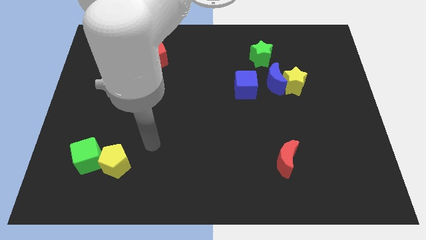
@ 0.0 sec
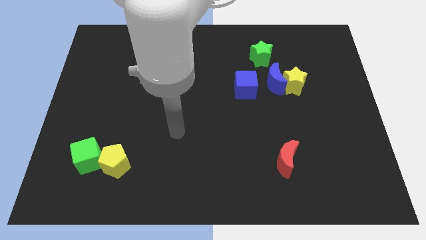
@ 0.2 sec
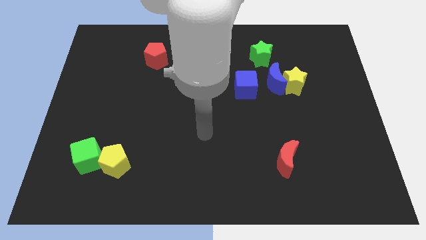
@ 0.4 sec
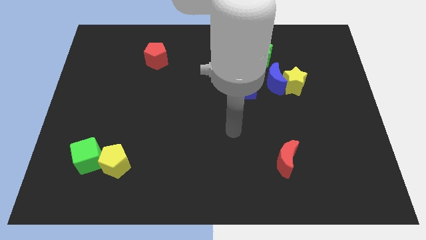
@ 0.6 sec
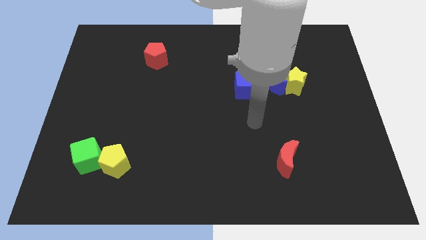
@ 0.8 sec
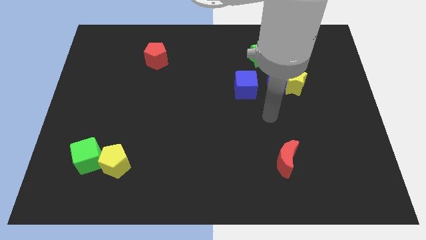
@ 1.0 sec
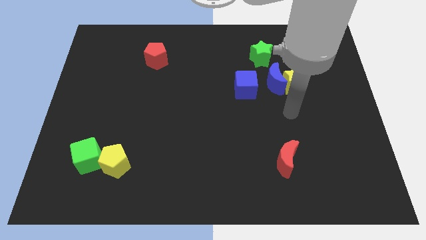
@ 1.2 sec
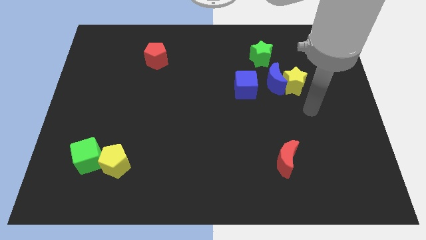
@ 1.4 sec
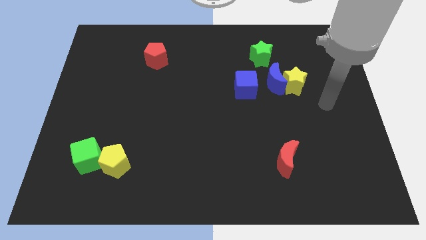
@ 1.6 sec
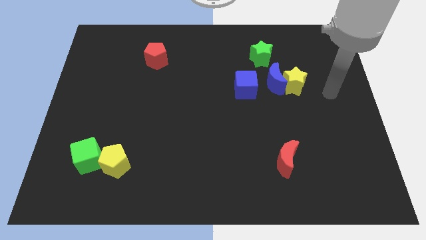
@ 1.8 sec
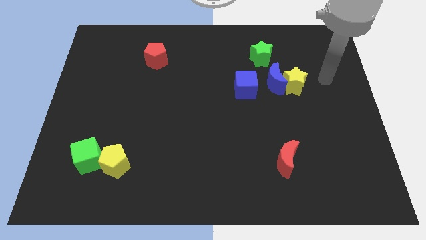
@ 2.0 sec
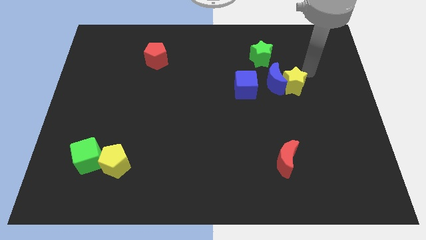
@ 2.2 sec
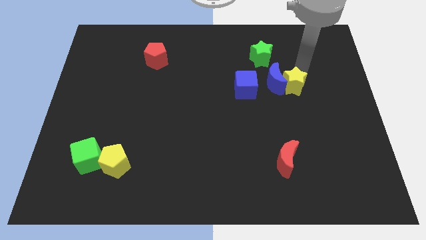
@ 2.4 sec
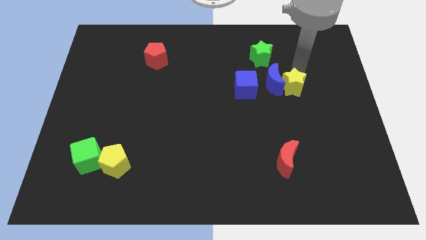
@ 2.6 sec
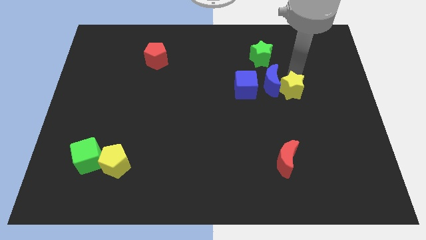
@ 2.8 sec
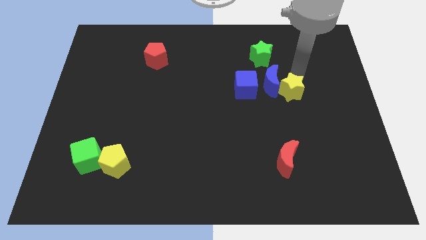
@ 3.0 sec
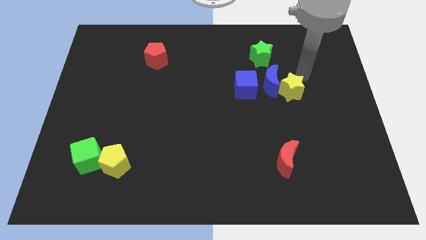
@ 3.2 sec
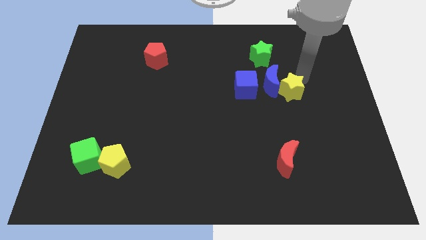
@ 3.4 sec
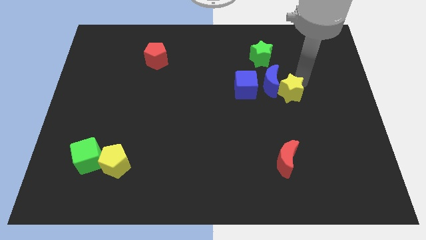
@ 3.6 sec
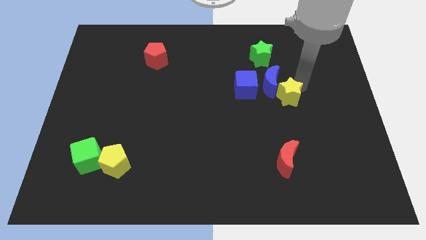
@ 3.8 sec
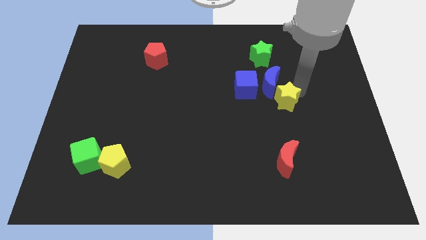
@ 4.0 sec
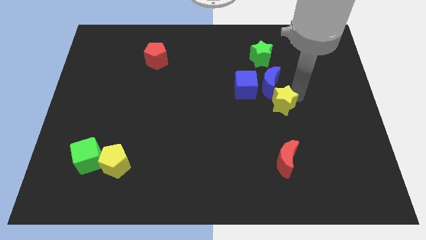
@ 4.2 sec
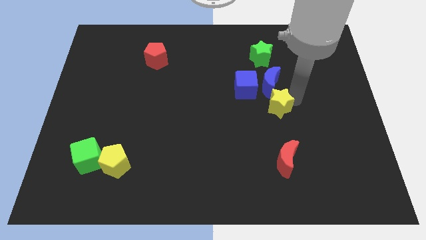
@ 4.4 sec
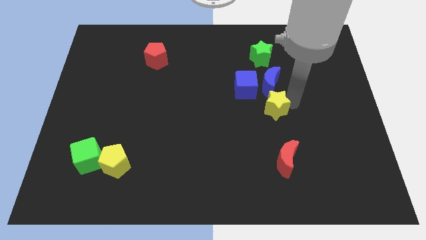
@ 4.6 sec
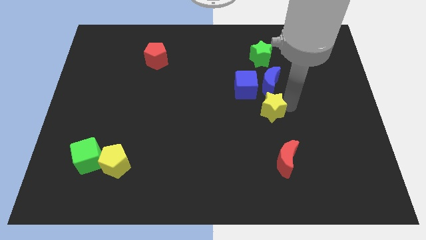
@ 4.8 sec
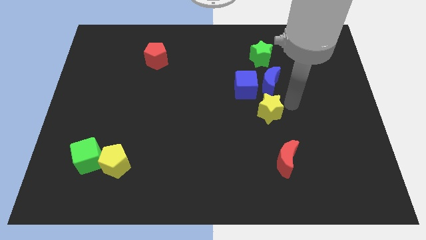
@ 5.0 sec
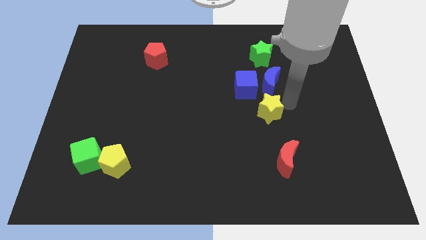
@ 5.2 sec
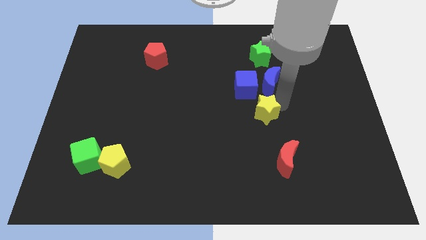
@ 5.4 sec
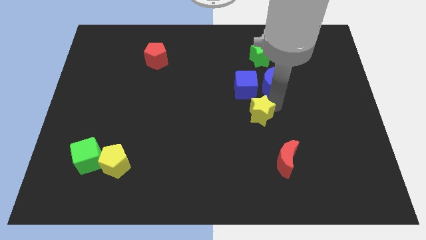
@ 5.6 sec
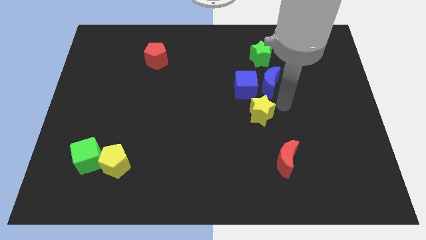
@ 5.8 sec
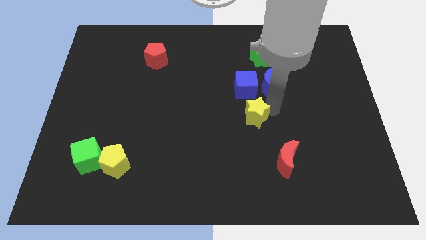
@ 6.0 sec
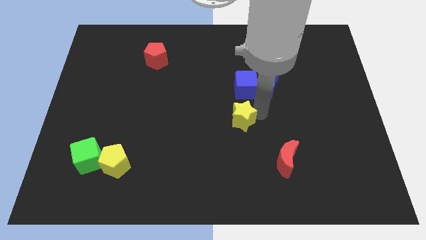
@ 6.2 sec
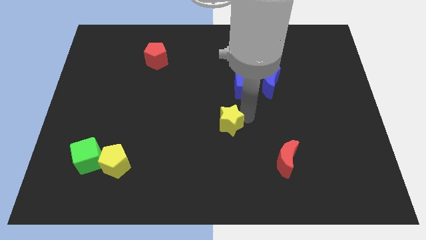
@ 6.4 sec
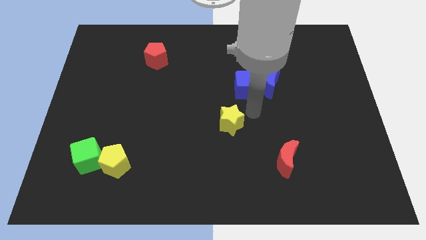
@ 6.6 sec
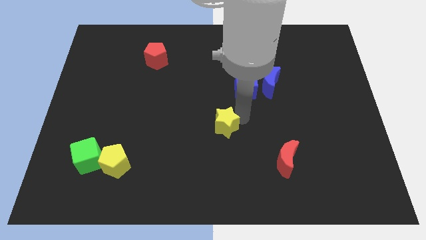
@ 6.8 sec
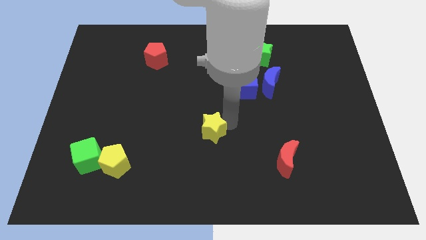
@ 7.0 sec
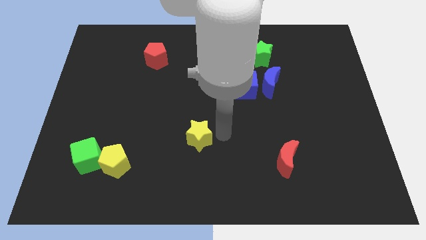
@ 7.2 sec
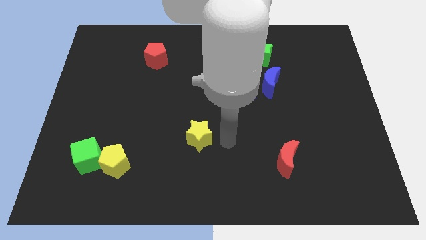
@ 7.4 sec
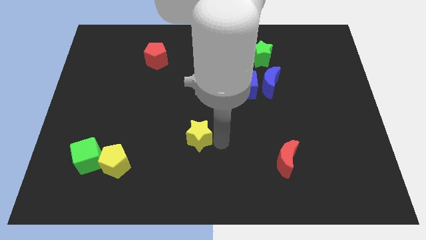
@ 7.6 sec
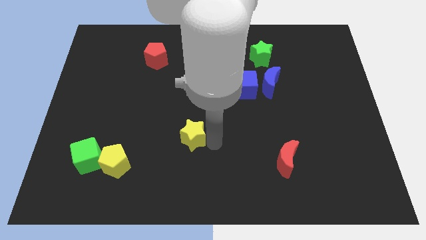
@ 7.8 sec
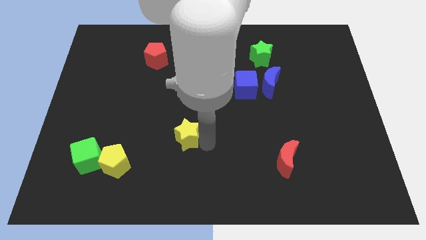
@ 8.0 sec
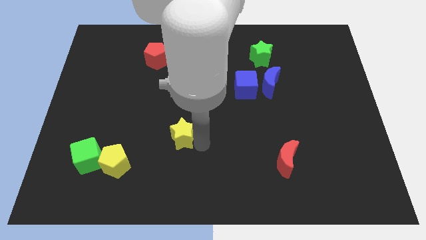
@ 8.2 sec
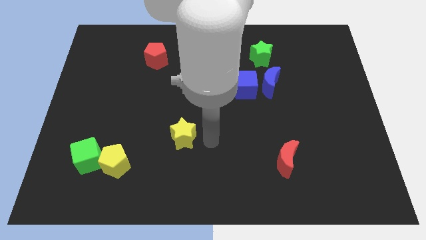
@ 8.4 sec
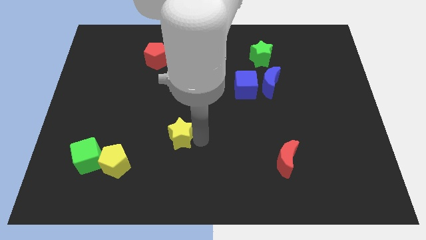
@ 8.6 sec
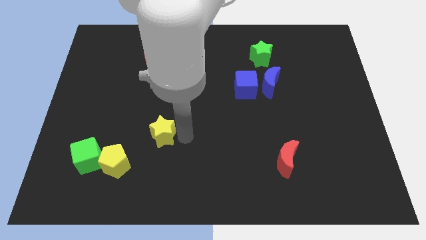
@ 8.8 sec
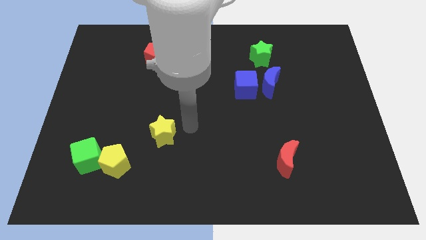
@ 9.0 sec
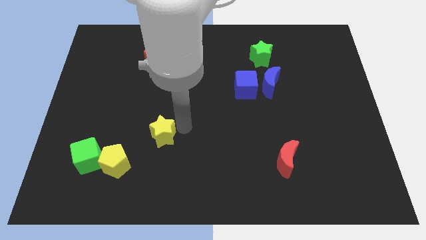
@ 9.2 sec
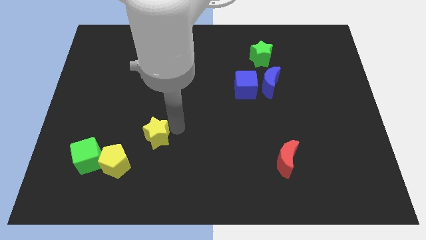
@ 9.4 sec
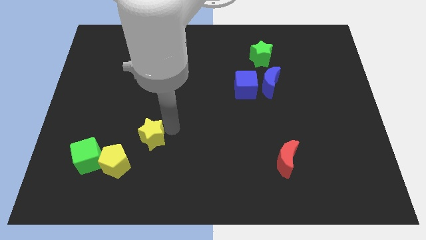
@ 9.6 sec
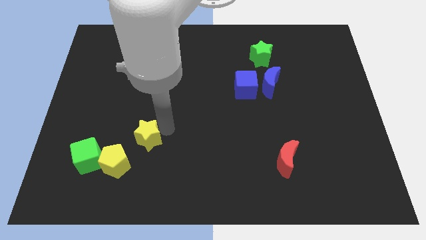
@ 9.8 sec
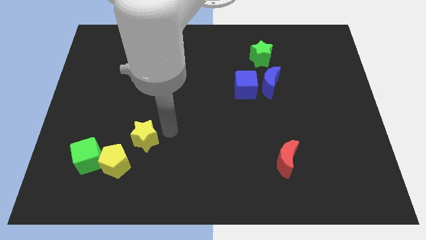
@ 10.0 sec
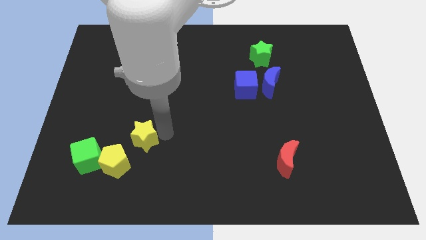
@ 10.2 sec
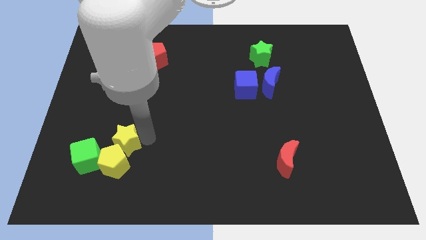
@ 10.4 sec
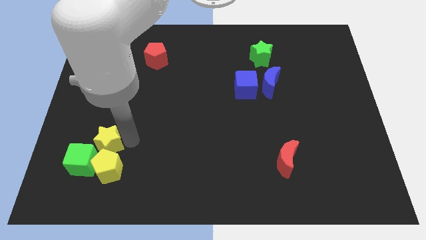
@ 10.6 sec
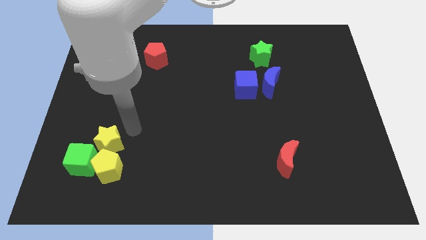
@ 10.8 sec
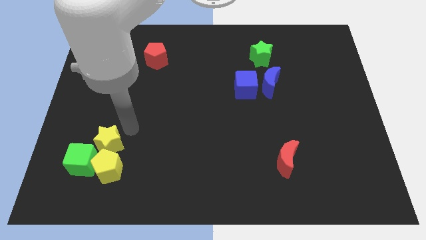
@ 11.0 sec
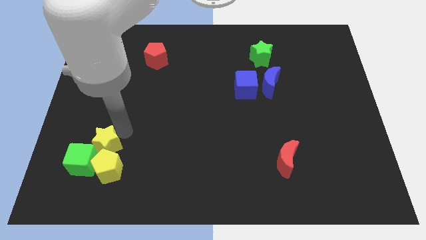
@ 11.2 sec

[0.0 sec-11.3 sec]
move the yellow star to the green cube

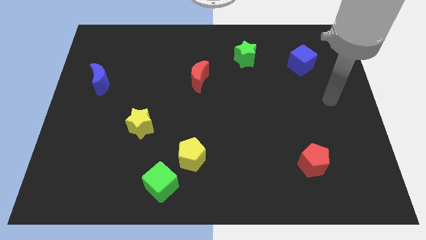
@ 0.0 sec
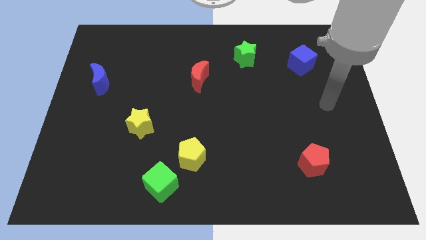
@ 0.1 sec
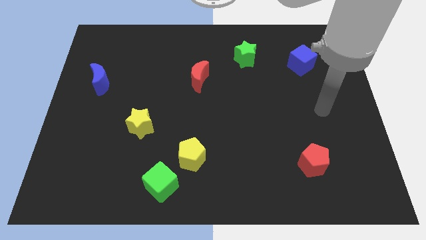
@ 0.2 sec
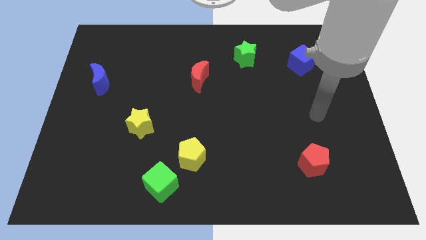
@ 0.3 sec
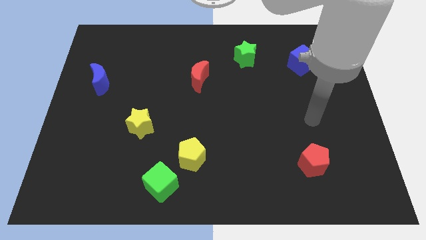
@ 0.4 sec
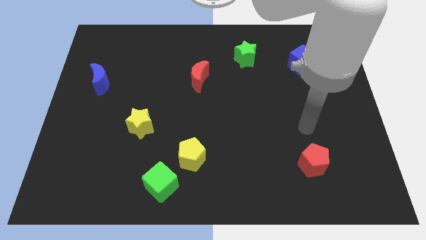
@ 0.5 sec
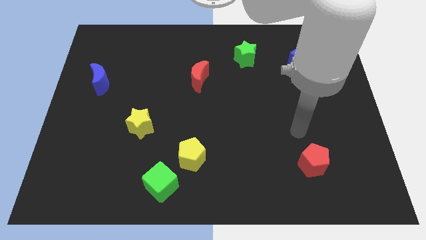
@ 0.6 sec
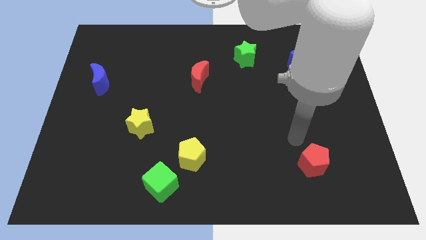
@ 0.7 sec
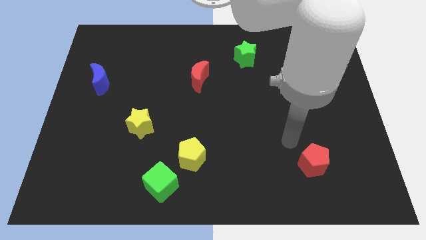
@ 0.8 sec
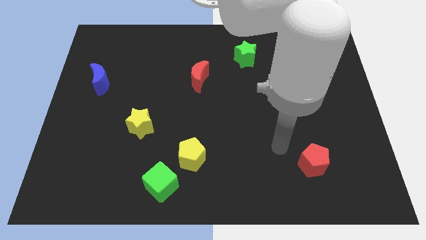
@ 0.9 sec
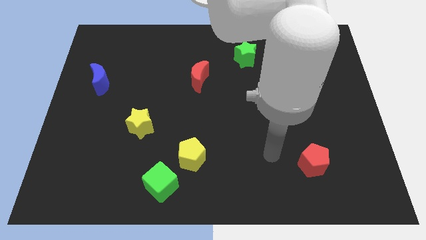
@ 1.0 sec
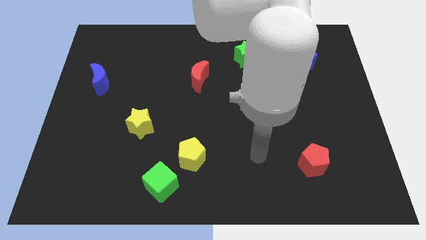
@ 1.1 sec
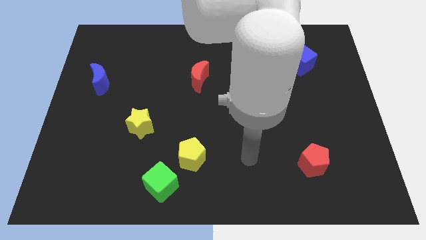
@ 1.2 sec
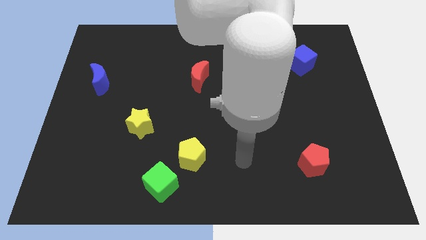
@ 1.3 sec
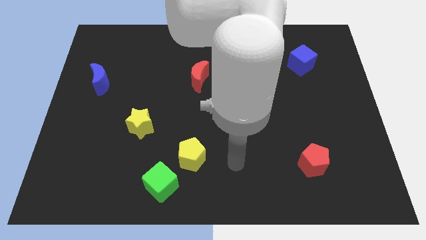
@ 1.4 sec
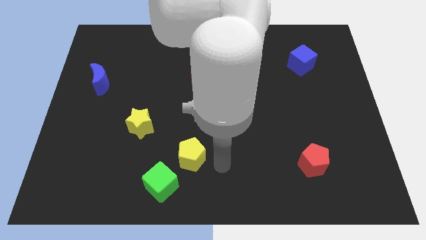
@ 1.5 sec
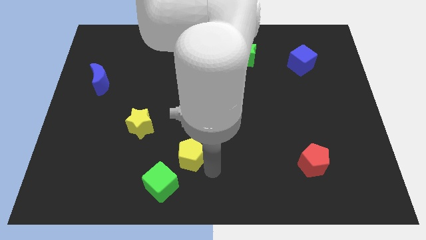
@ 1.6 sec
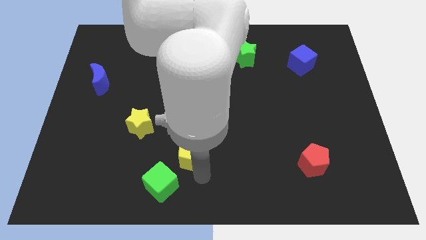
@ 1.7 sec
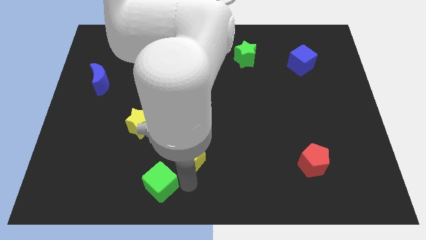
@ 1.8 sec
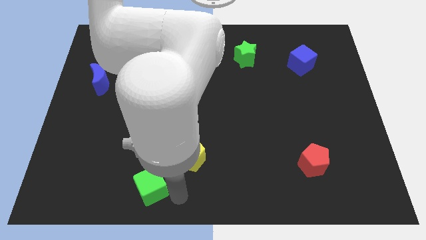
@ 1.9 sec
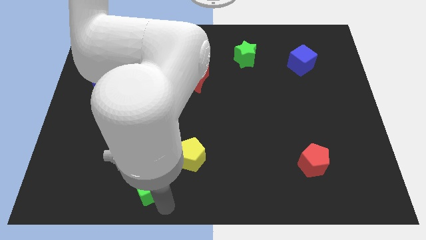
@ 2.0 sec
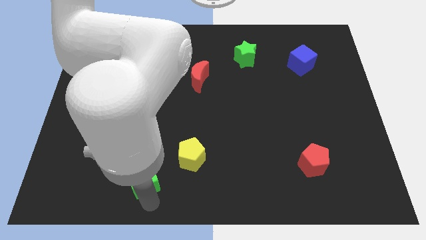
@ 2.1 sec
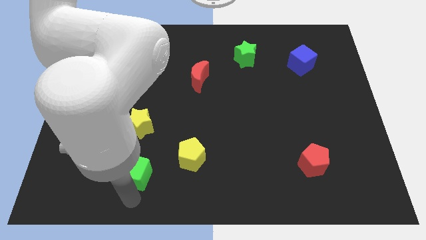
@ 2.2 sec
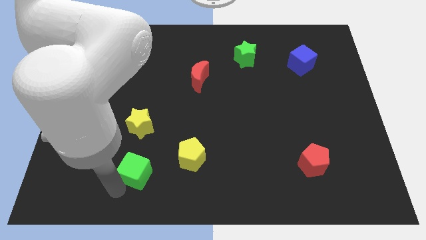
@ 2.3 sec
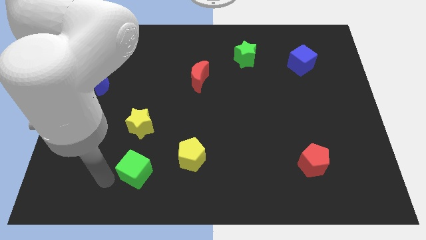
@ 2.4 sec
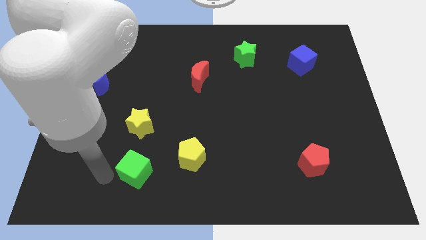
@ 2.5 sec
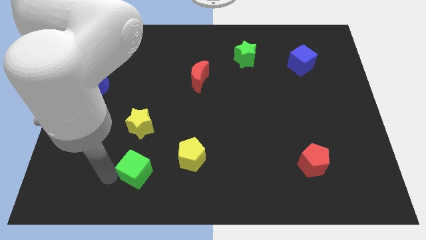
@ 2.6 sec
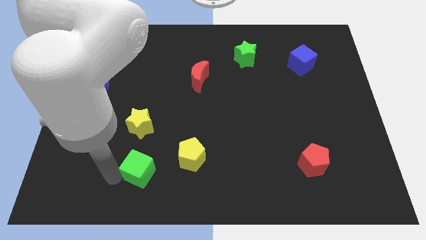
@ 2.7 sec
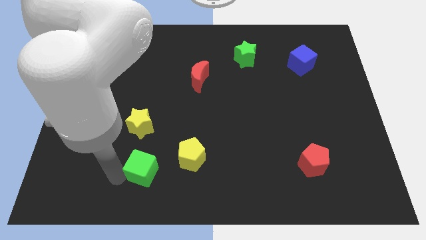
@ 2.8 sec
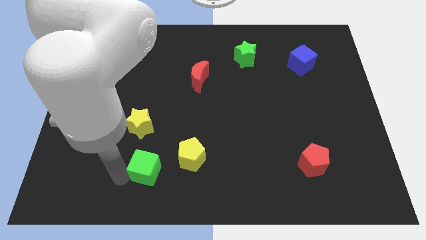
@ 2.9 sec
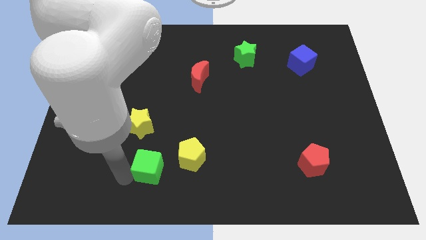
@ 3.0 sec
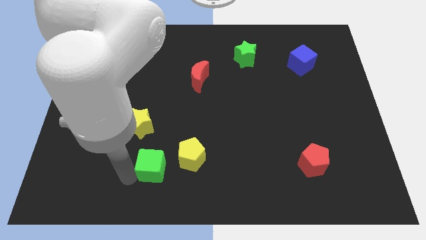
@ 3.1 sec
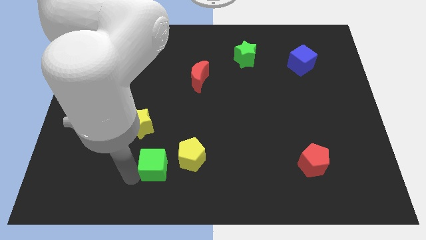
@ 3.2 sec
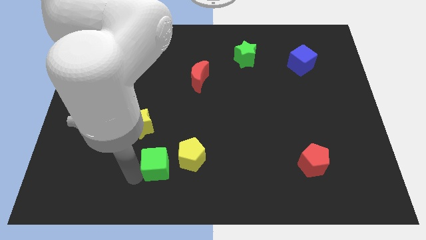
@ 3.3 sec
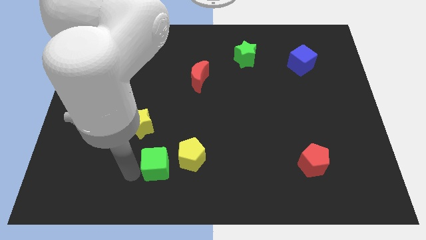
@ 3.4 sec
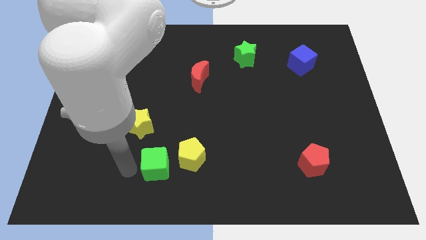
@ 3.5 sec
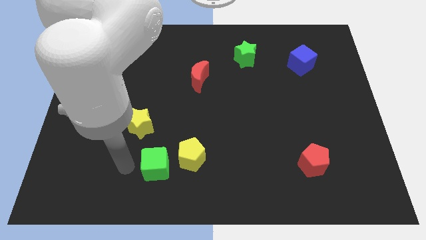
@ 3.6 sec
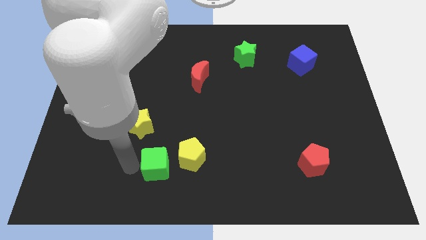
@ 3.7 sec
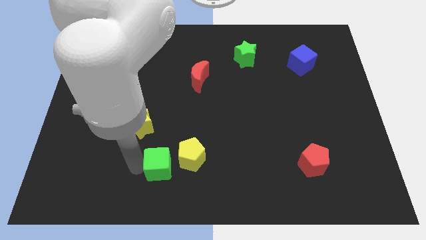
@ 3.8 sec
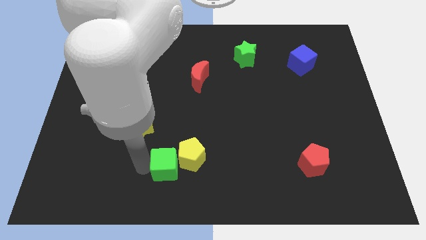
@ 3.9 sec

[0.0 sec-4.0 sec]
move the green cube to the yellow pentagon
